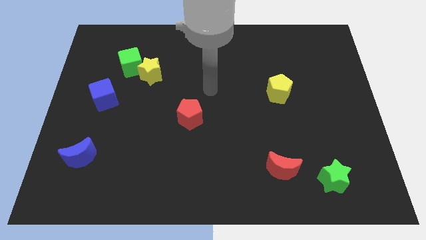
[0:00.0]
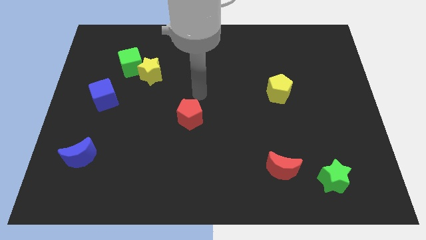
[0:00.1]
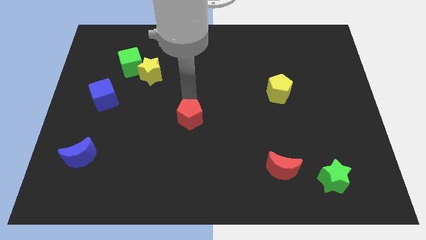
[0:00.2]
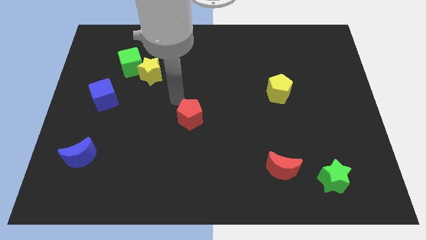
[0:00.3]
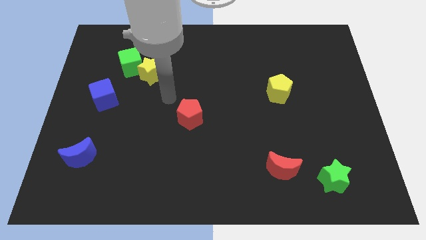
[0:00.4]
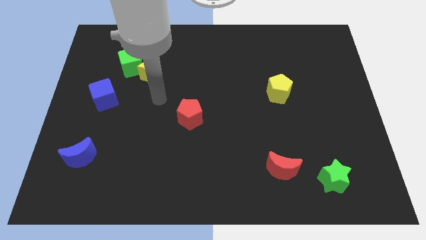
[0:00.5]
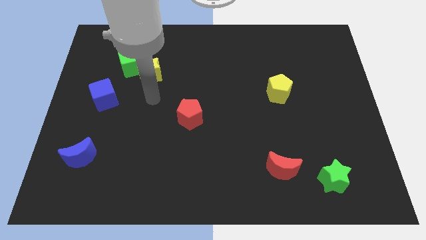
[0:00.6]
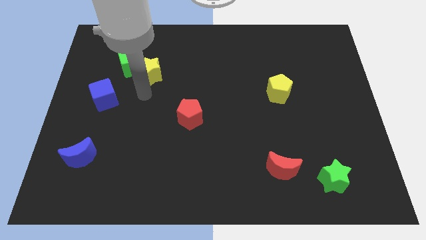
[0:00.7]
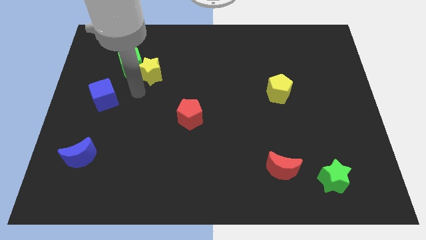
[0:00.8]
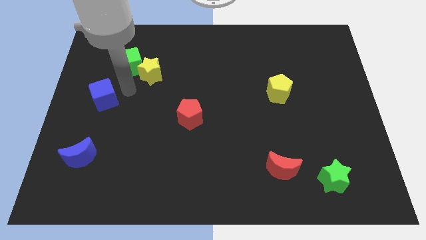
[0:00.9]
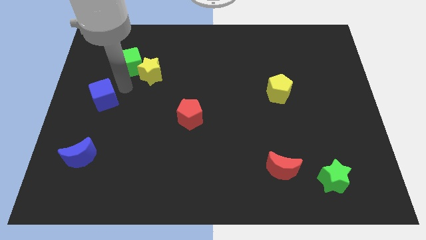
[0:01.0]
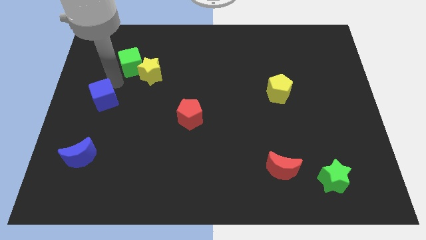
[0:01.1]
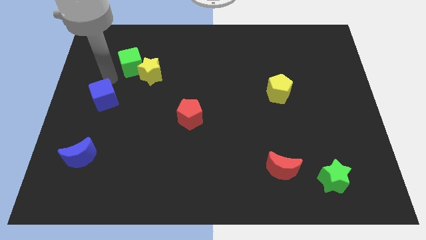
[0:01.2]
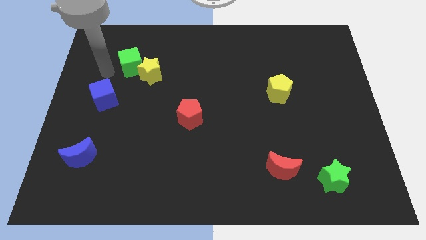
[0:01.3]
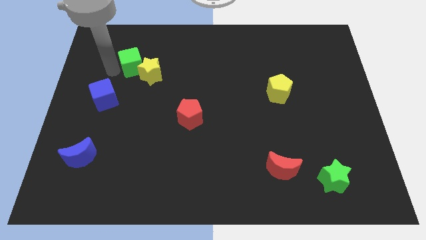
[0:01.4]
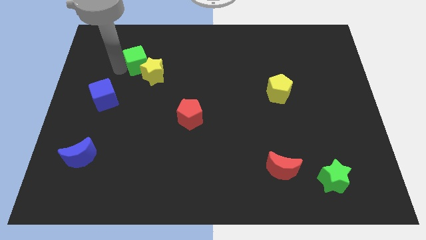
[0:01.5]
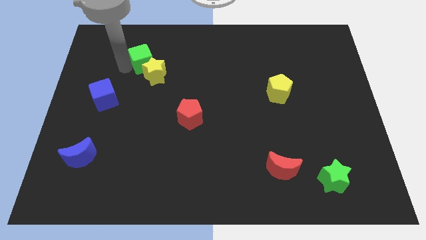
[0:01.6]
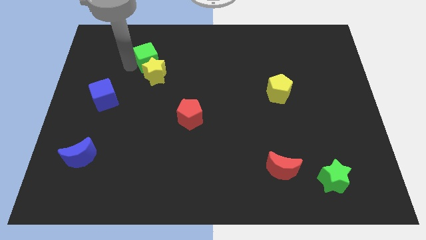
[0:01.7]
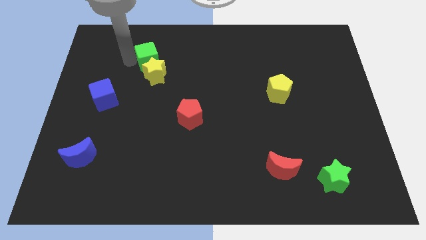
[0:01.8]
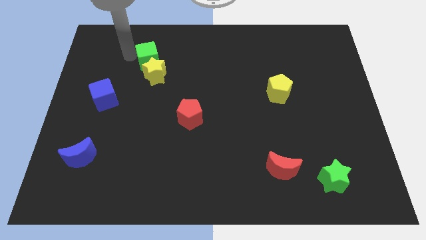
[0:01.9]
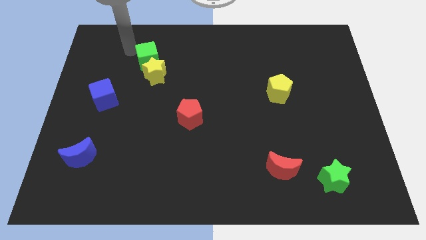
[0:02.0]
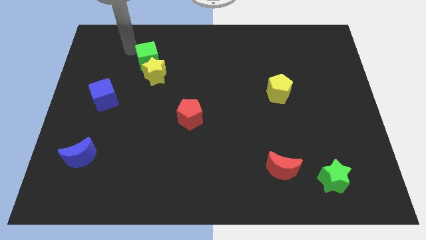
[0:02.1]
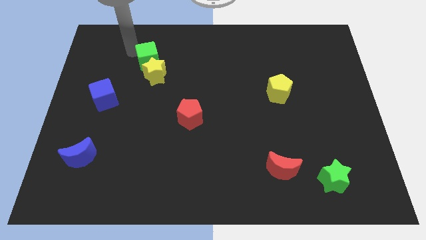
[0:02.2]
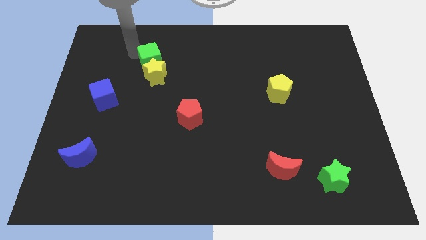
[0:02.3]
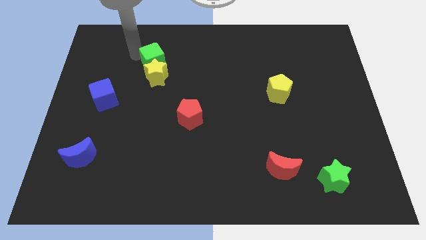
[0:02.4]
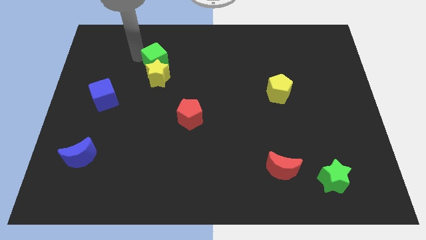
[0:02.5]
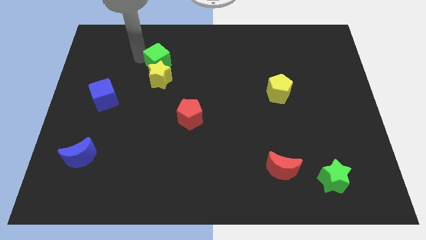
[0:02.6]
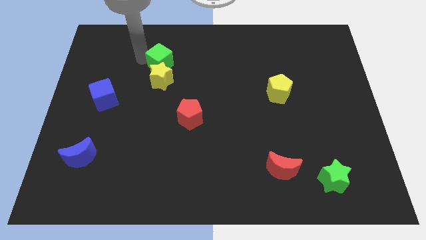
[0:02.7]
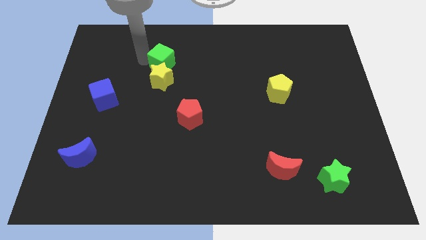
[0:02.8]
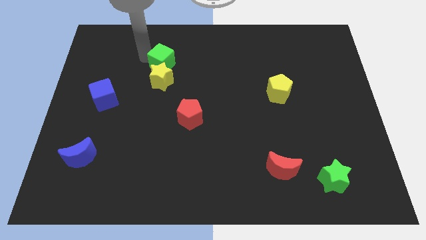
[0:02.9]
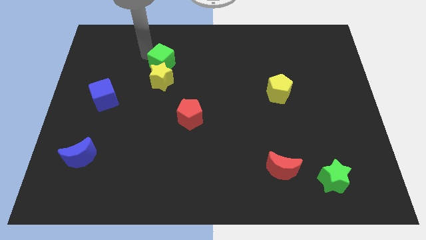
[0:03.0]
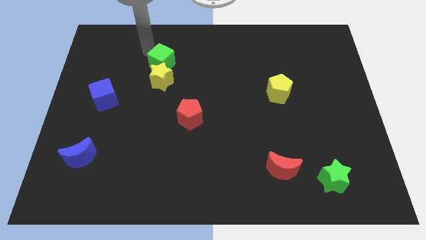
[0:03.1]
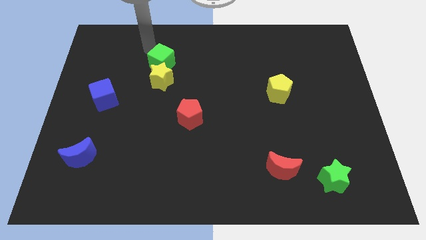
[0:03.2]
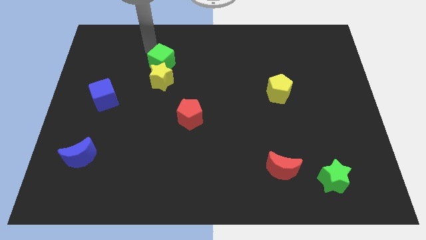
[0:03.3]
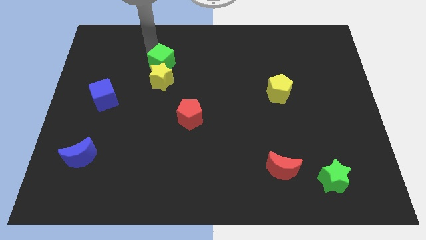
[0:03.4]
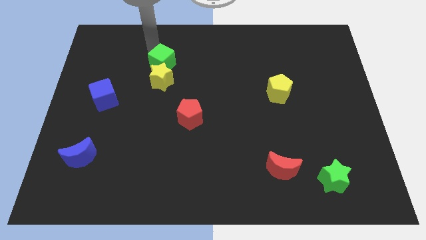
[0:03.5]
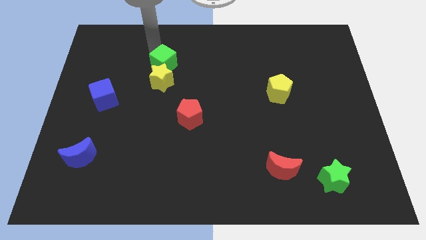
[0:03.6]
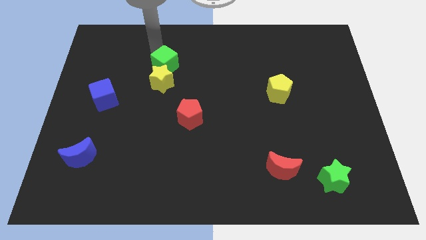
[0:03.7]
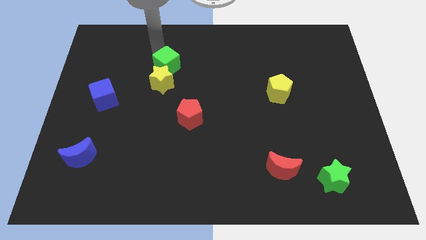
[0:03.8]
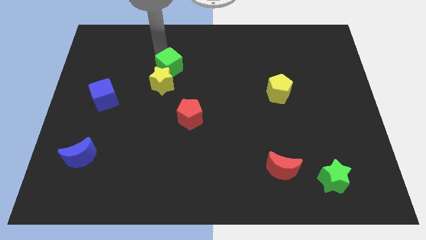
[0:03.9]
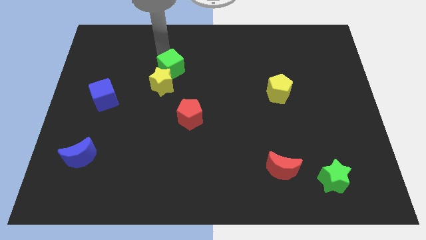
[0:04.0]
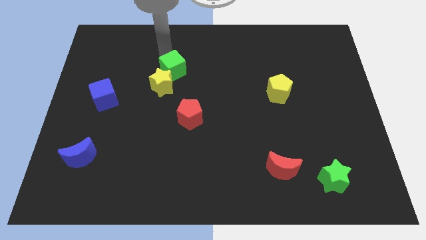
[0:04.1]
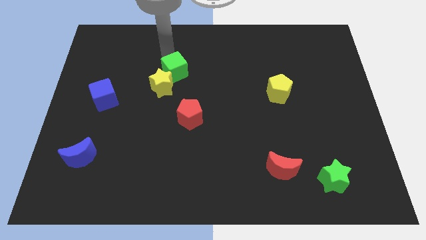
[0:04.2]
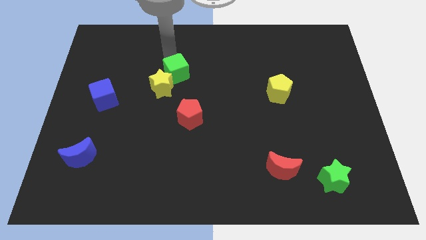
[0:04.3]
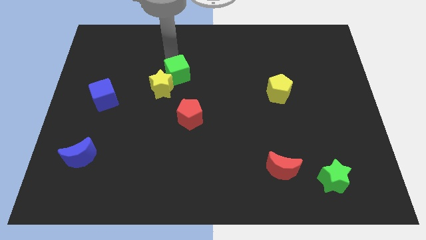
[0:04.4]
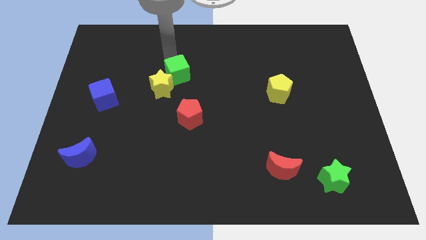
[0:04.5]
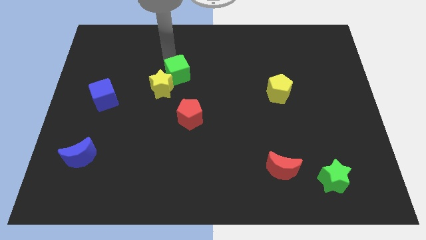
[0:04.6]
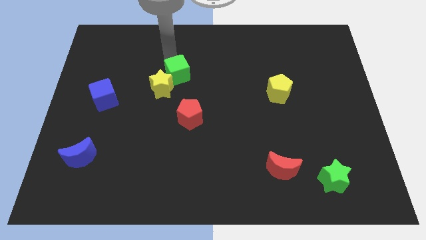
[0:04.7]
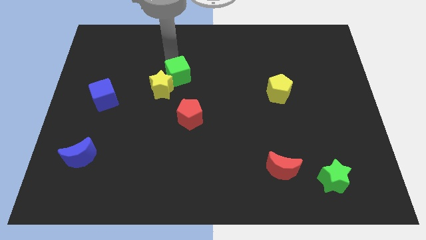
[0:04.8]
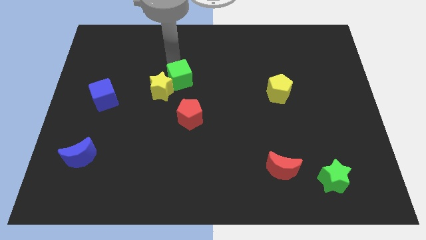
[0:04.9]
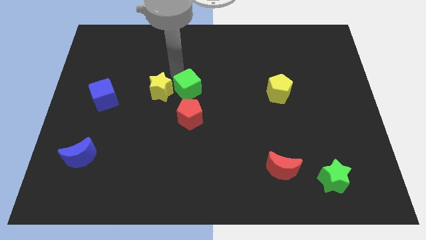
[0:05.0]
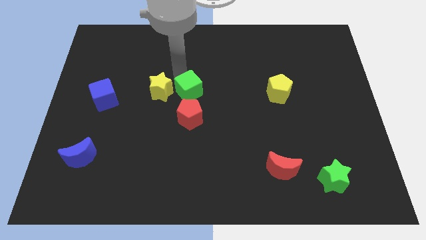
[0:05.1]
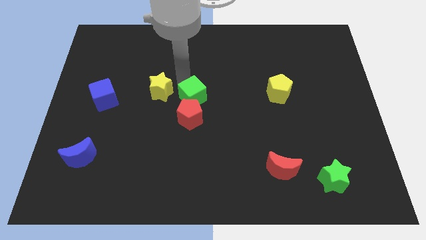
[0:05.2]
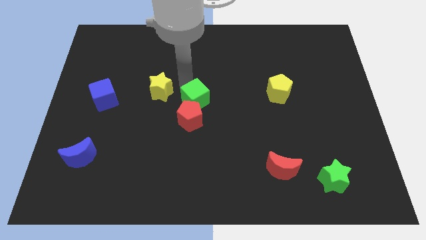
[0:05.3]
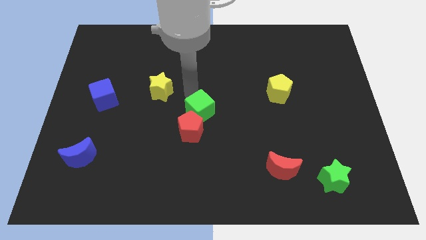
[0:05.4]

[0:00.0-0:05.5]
move the green cube diagonally down and to the right

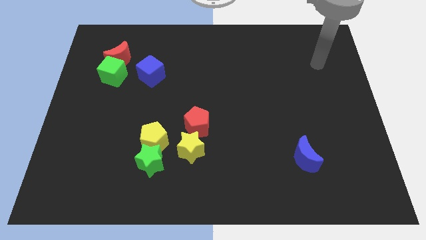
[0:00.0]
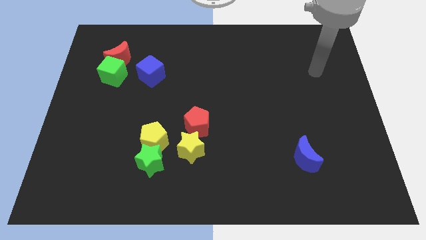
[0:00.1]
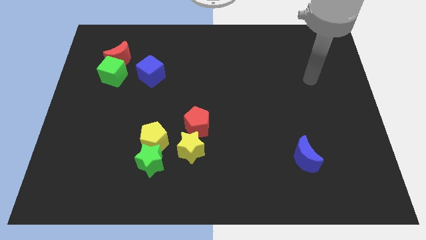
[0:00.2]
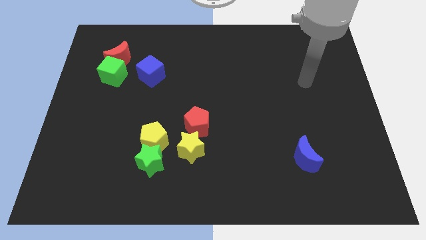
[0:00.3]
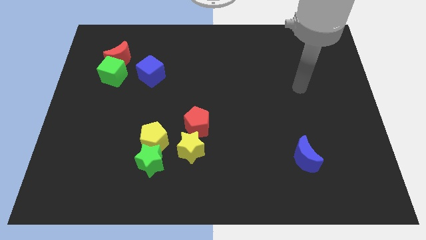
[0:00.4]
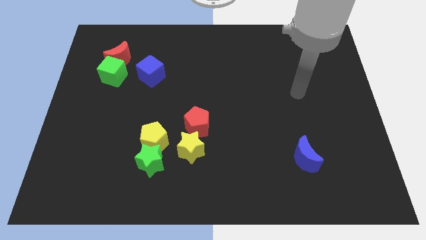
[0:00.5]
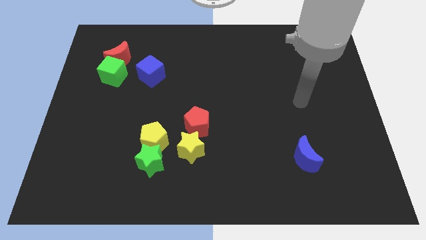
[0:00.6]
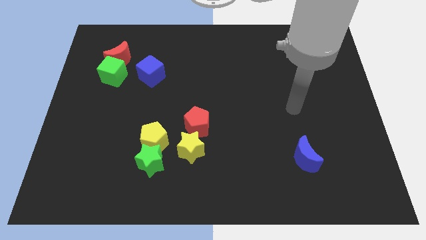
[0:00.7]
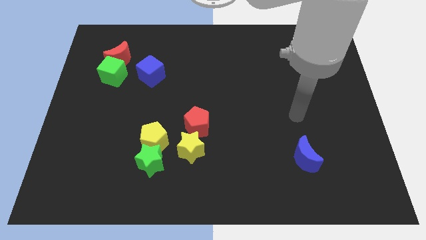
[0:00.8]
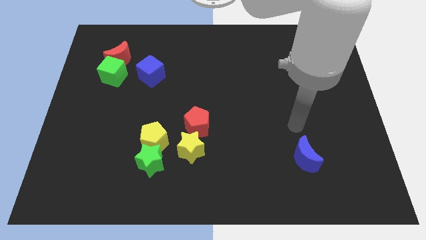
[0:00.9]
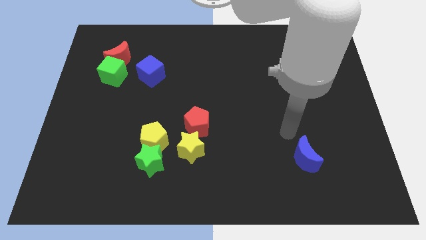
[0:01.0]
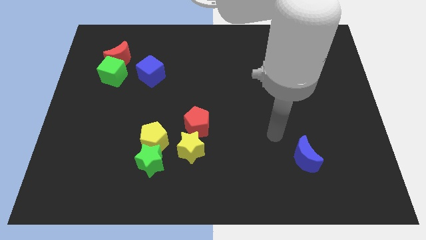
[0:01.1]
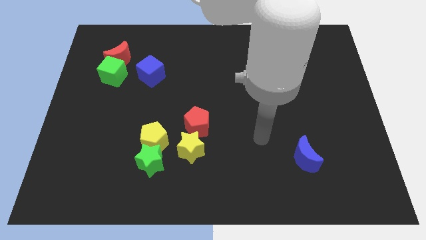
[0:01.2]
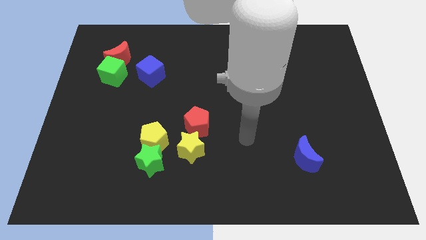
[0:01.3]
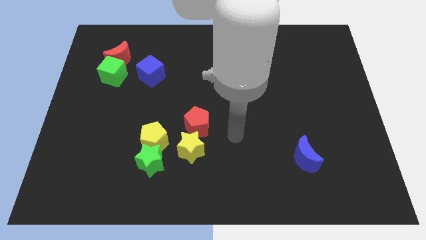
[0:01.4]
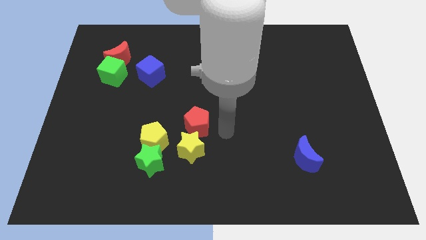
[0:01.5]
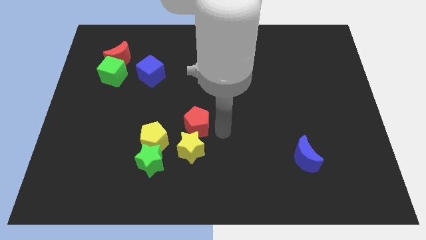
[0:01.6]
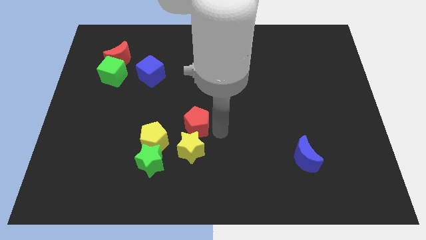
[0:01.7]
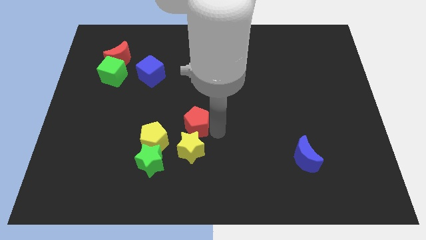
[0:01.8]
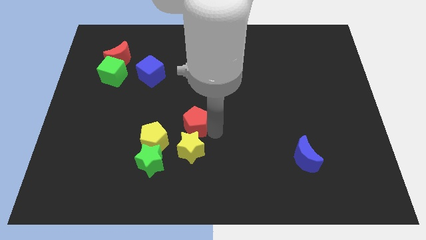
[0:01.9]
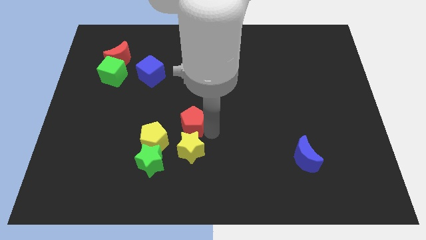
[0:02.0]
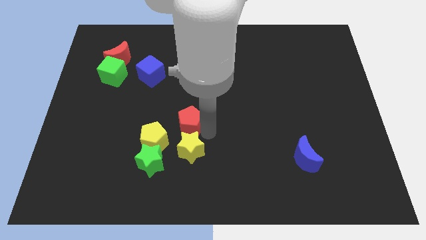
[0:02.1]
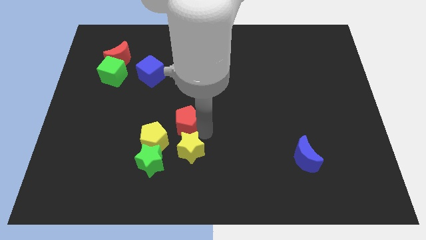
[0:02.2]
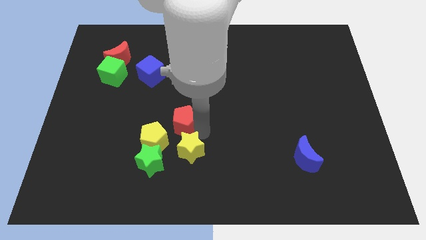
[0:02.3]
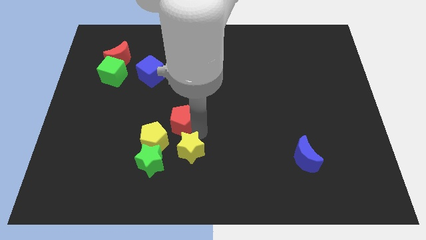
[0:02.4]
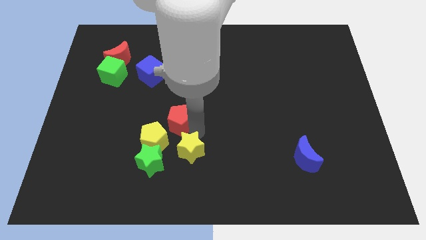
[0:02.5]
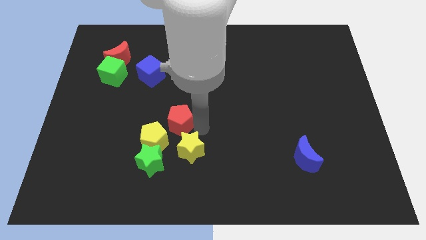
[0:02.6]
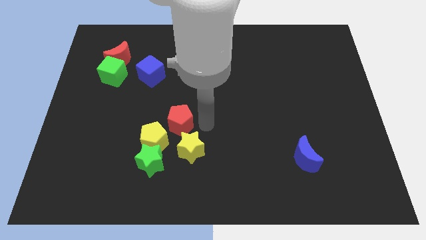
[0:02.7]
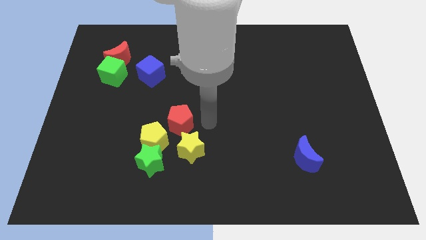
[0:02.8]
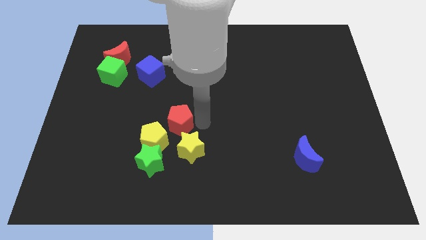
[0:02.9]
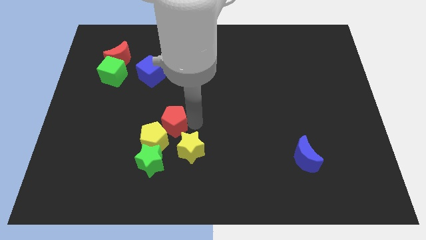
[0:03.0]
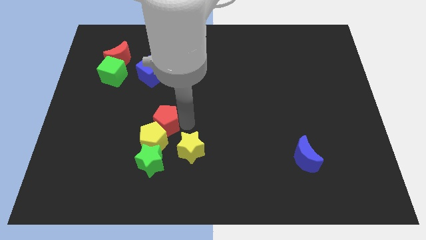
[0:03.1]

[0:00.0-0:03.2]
slightly push the red pentagon left
